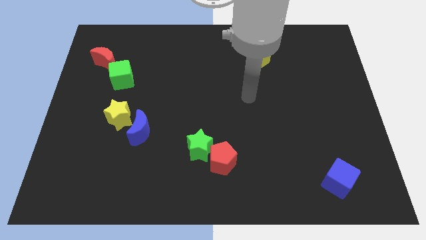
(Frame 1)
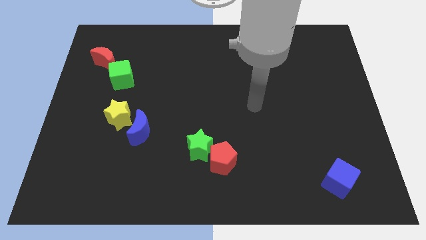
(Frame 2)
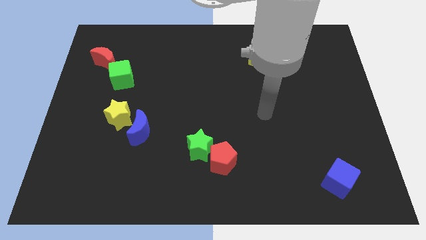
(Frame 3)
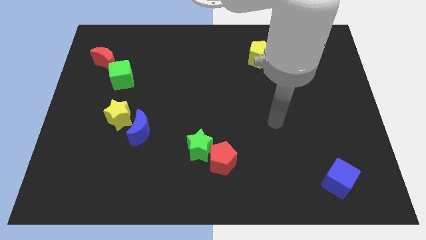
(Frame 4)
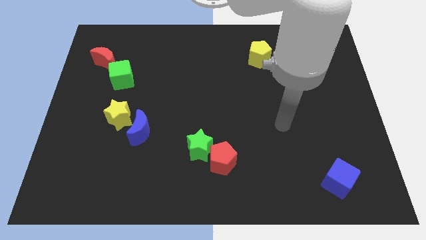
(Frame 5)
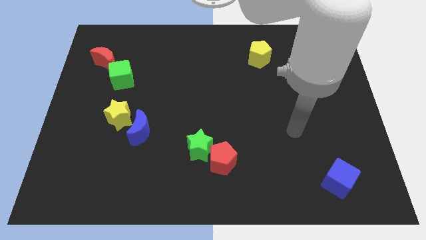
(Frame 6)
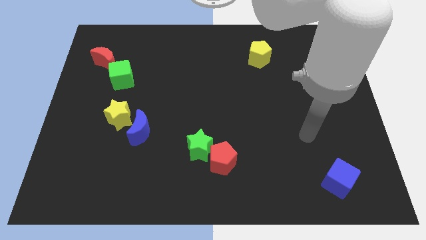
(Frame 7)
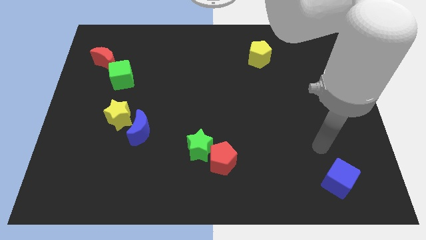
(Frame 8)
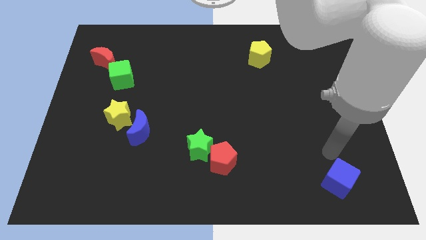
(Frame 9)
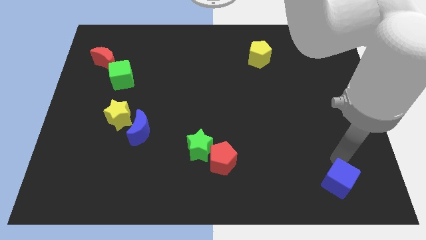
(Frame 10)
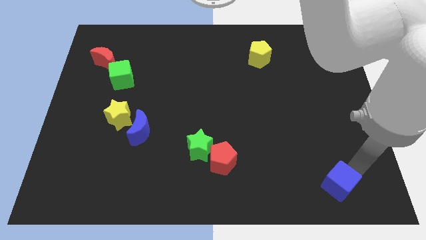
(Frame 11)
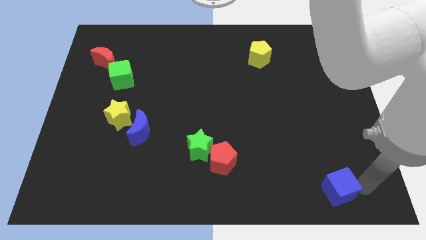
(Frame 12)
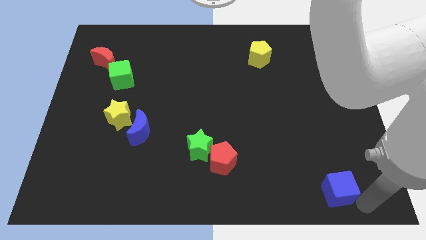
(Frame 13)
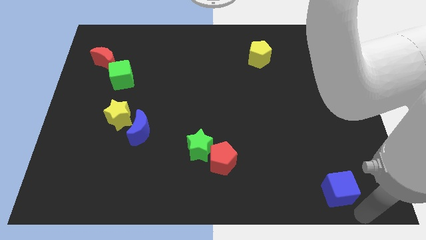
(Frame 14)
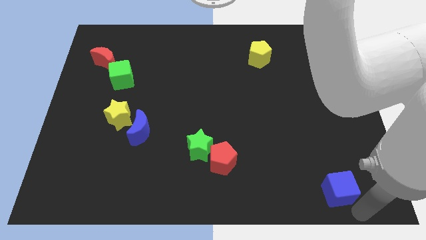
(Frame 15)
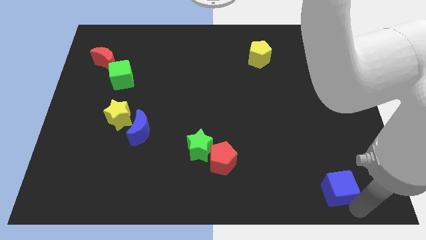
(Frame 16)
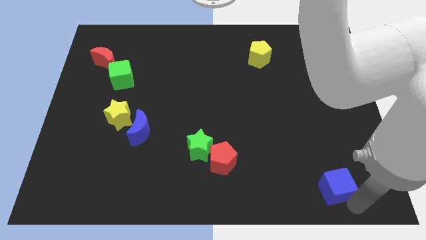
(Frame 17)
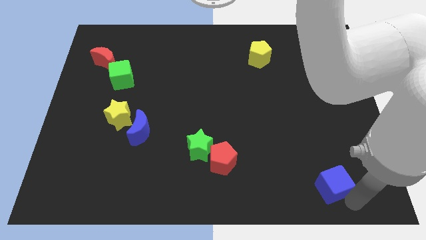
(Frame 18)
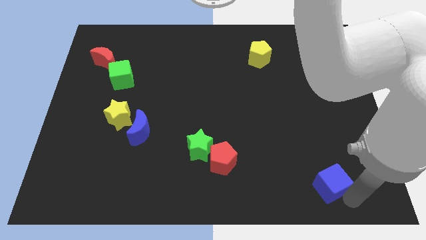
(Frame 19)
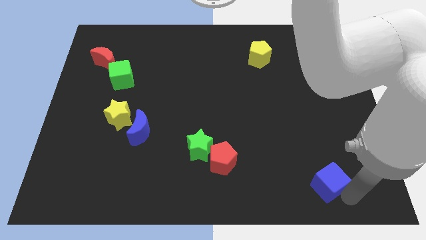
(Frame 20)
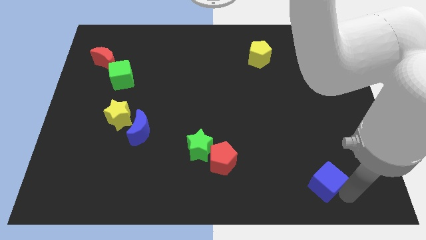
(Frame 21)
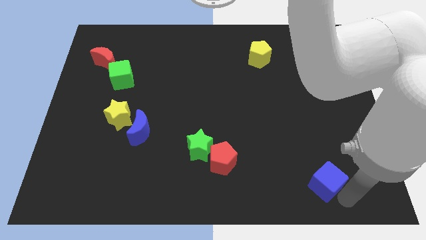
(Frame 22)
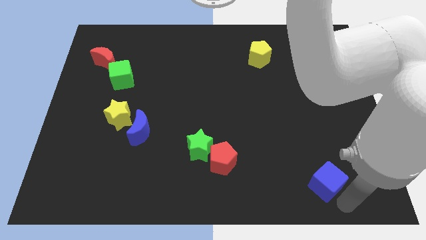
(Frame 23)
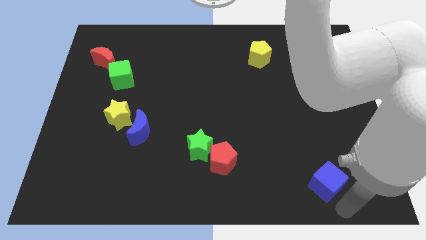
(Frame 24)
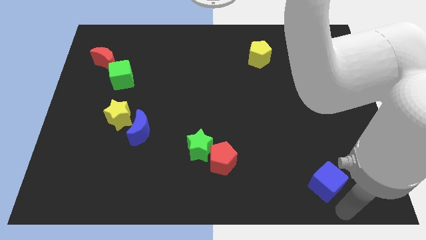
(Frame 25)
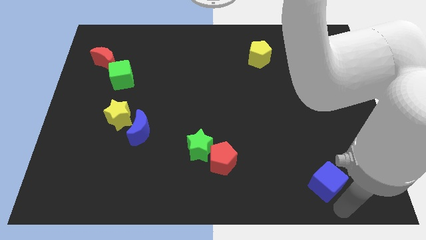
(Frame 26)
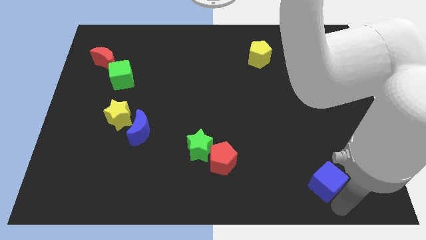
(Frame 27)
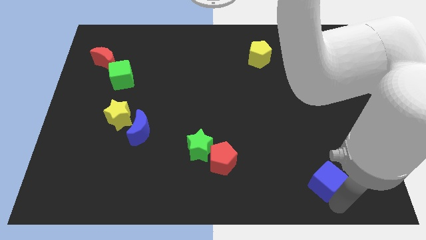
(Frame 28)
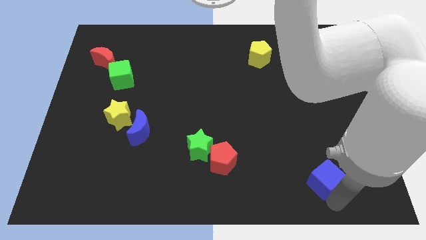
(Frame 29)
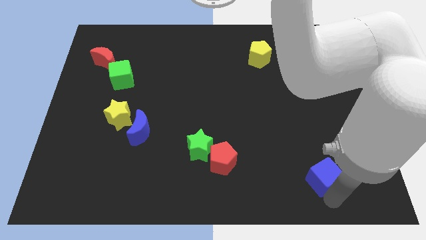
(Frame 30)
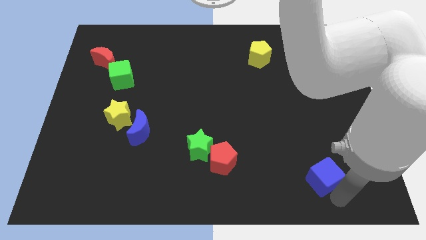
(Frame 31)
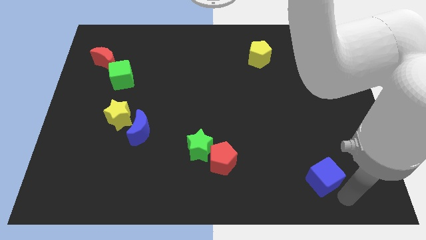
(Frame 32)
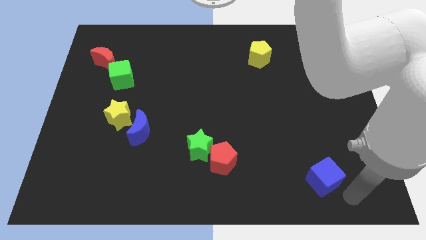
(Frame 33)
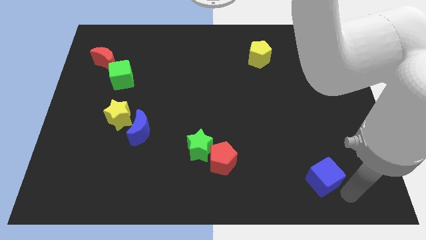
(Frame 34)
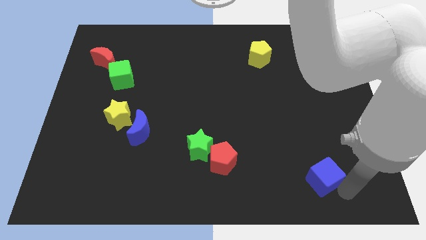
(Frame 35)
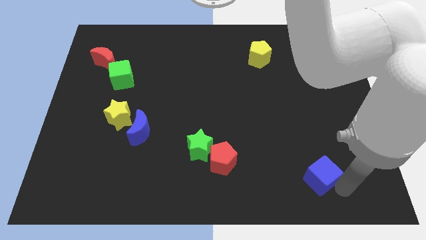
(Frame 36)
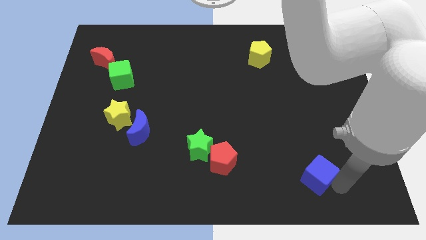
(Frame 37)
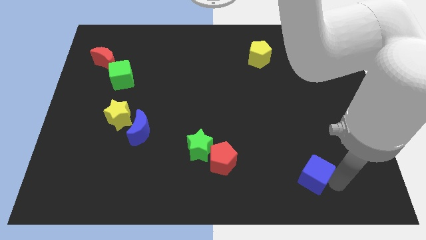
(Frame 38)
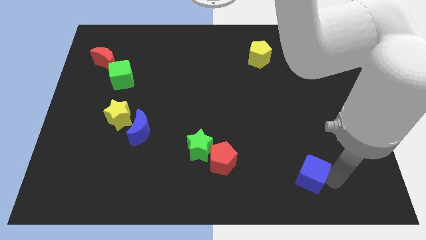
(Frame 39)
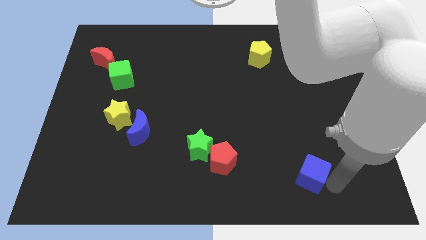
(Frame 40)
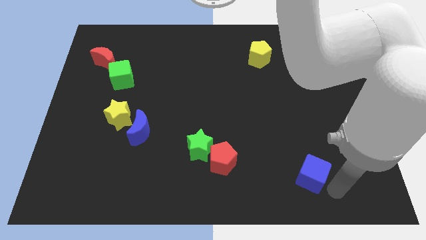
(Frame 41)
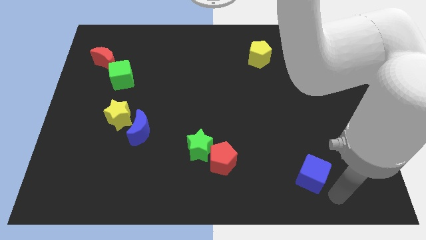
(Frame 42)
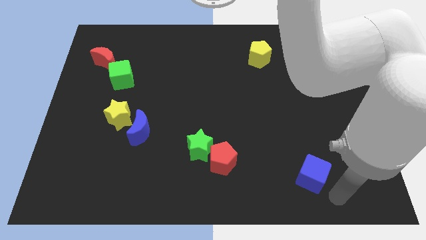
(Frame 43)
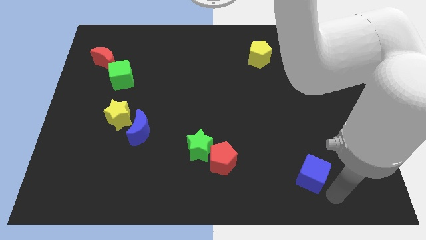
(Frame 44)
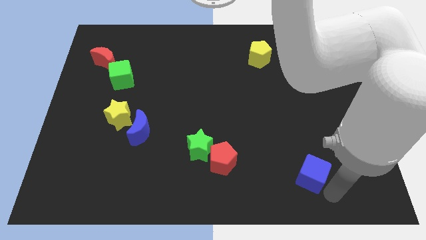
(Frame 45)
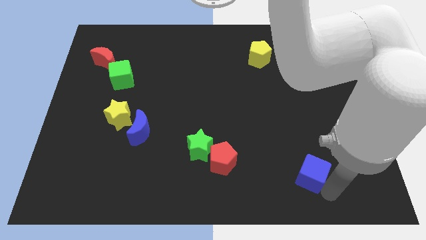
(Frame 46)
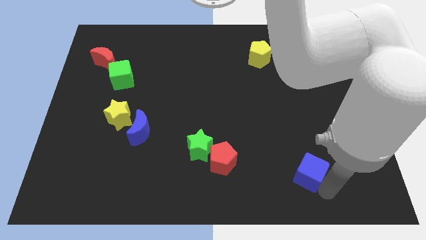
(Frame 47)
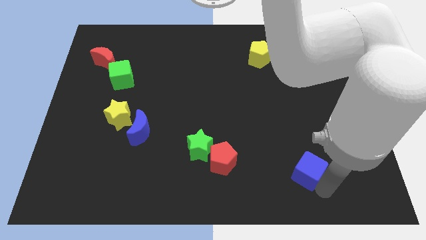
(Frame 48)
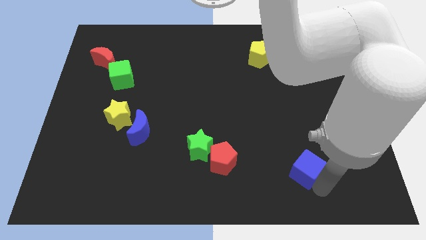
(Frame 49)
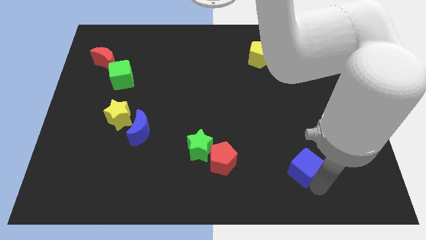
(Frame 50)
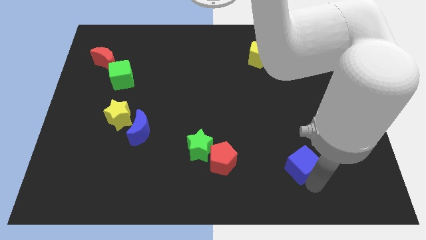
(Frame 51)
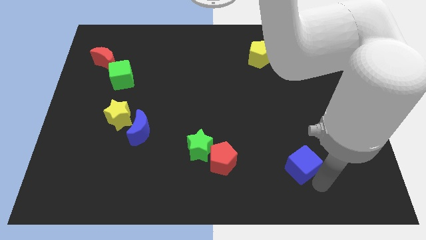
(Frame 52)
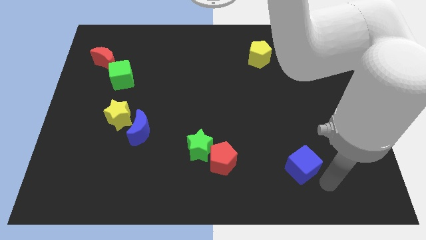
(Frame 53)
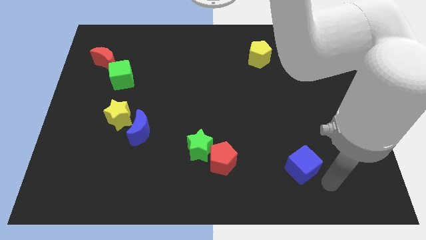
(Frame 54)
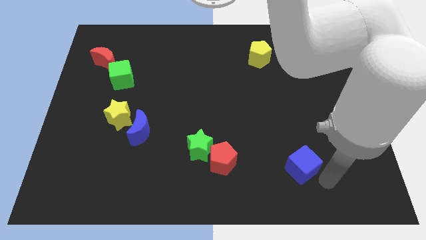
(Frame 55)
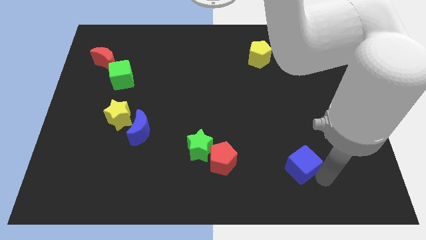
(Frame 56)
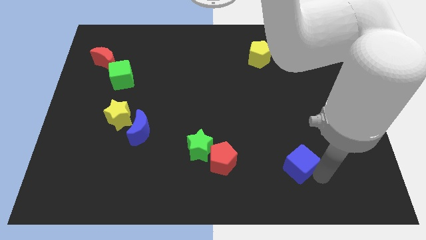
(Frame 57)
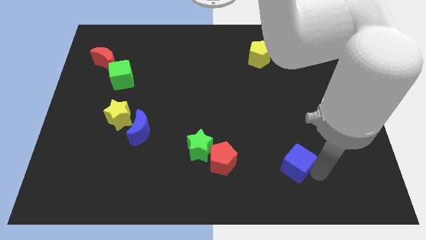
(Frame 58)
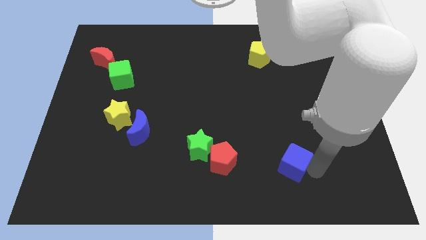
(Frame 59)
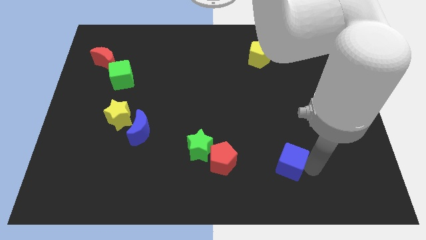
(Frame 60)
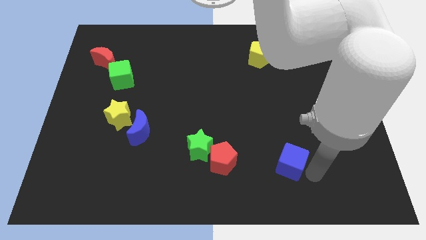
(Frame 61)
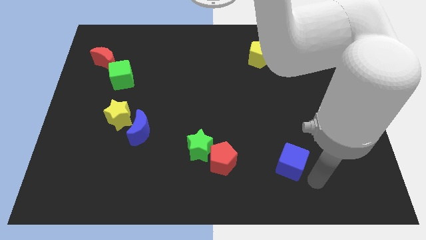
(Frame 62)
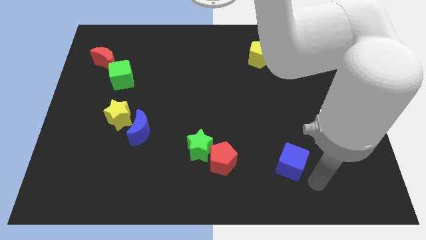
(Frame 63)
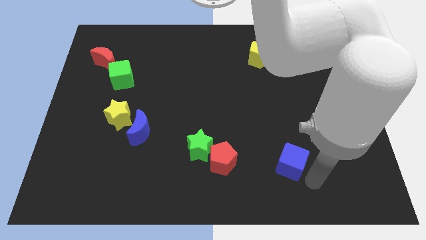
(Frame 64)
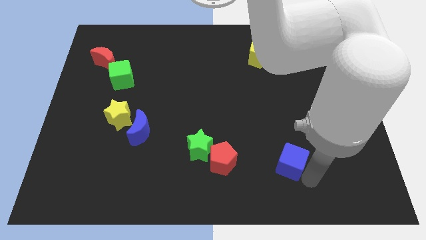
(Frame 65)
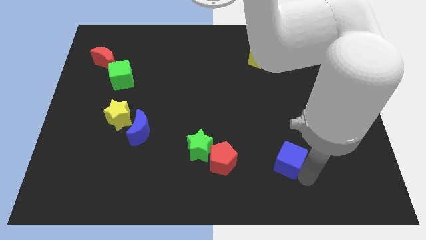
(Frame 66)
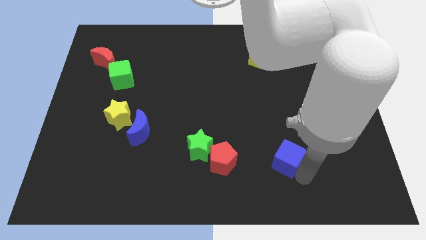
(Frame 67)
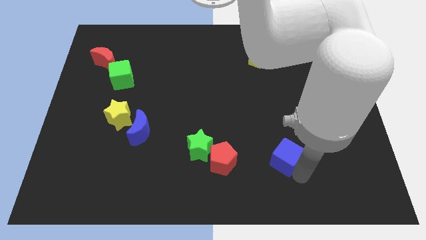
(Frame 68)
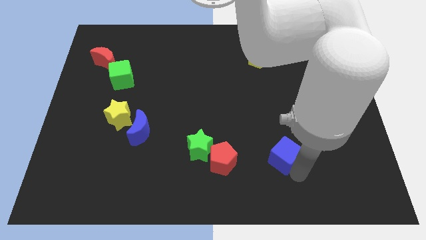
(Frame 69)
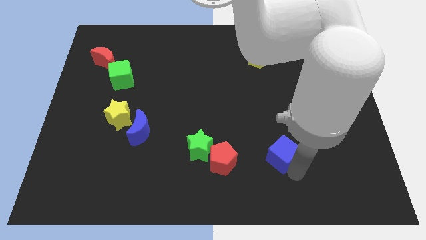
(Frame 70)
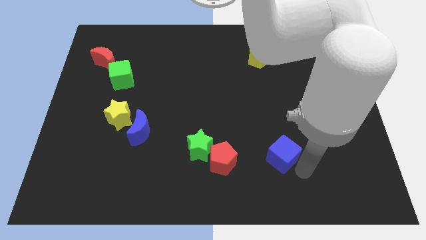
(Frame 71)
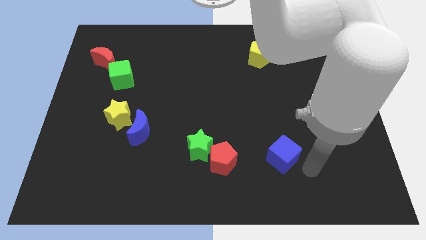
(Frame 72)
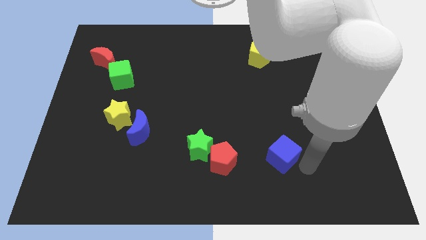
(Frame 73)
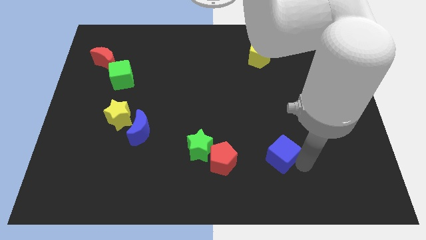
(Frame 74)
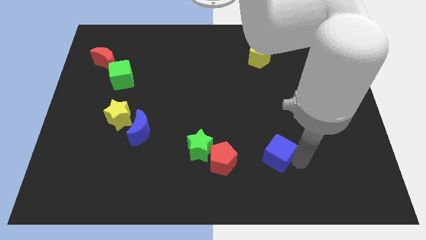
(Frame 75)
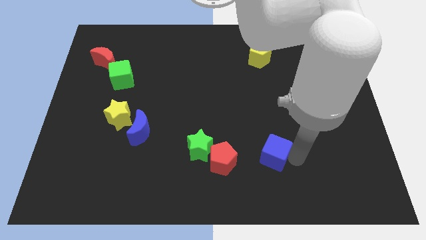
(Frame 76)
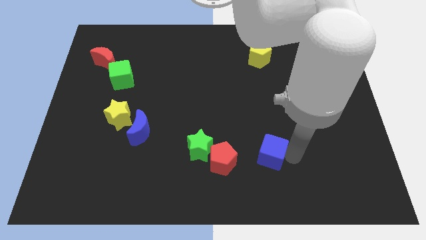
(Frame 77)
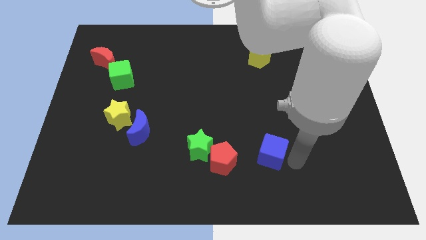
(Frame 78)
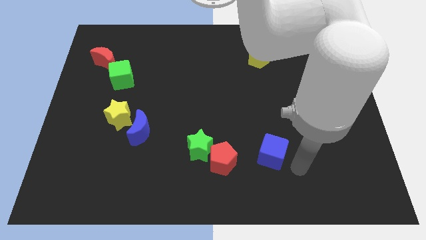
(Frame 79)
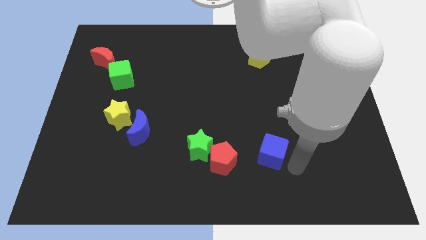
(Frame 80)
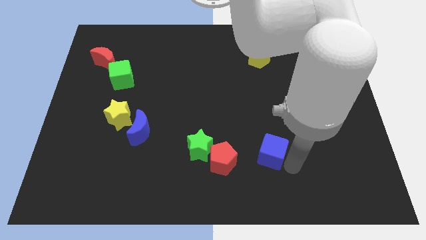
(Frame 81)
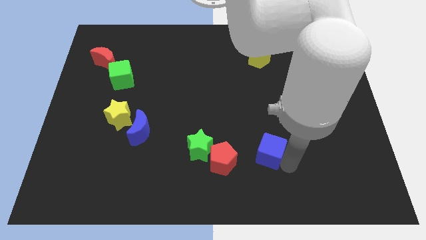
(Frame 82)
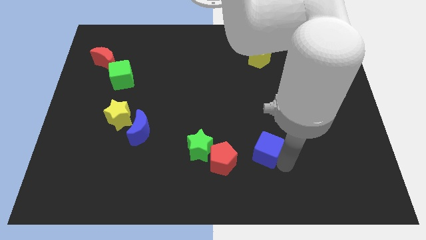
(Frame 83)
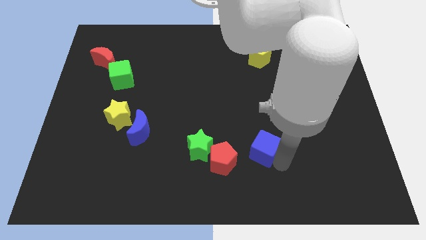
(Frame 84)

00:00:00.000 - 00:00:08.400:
push the blue cube to the top right of the red pentagon
